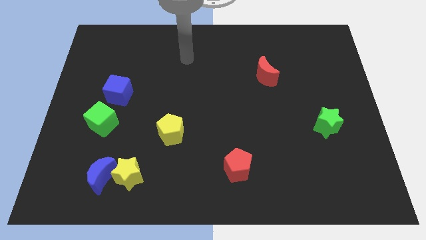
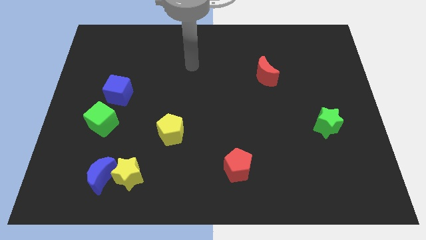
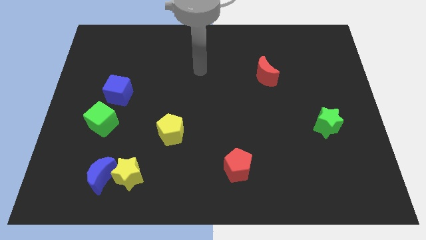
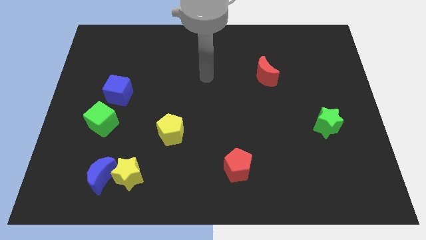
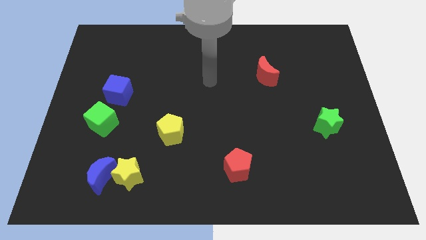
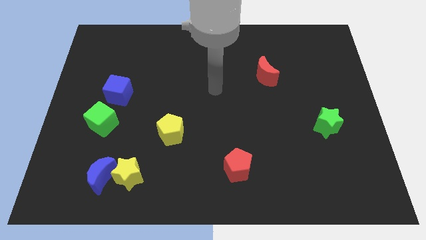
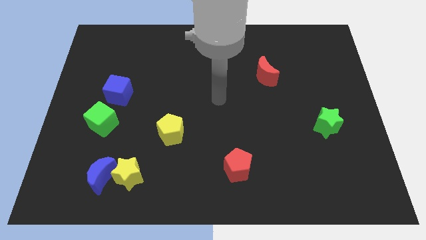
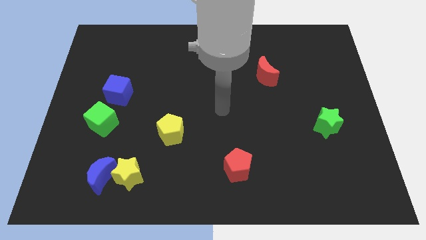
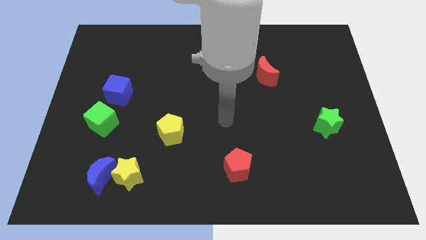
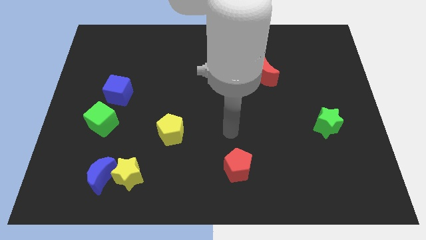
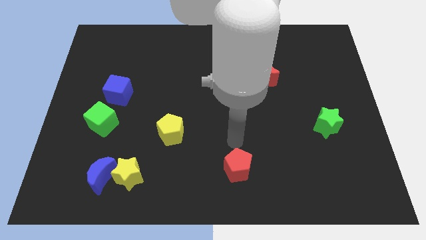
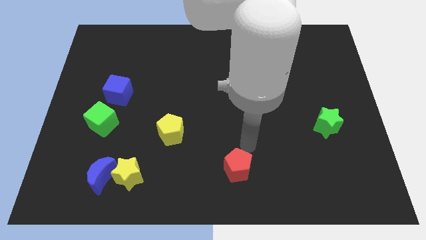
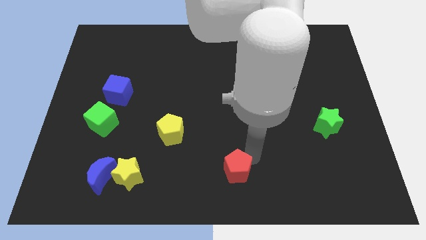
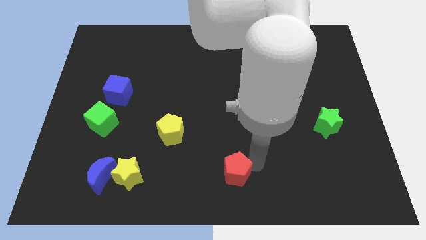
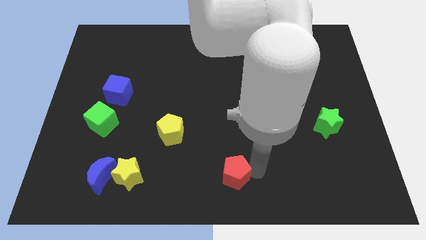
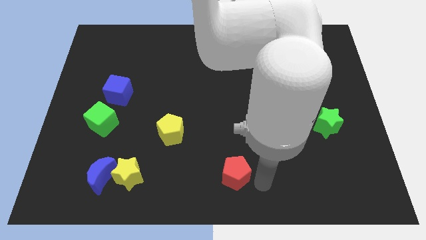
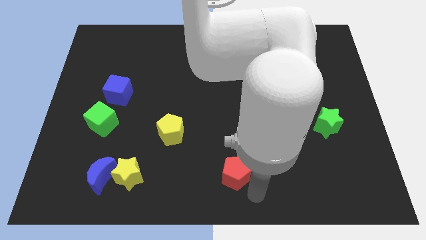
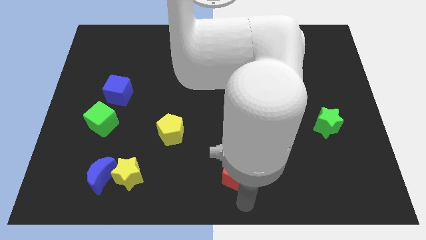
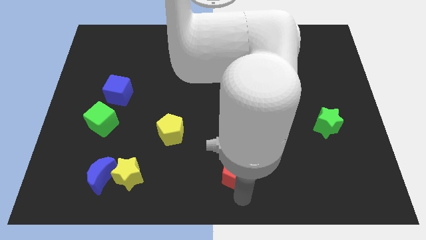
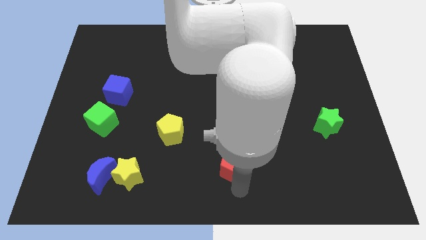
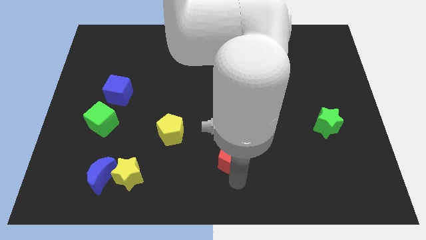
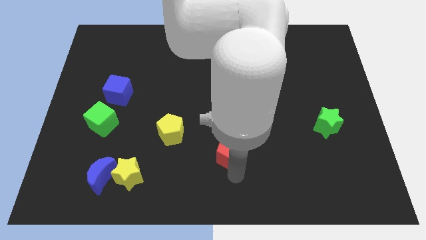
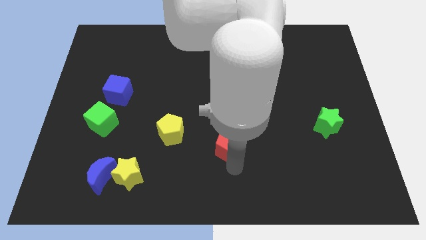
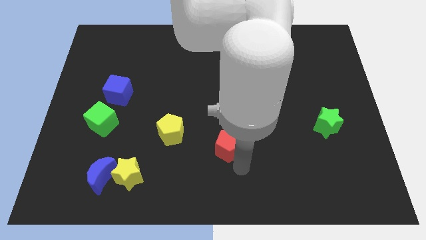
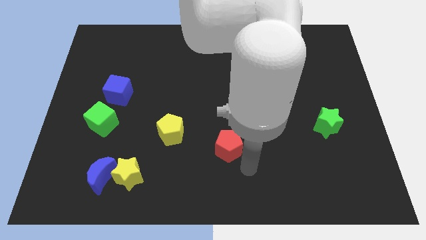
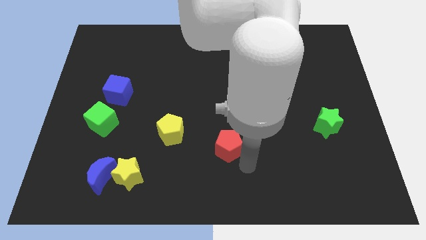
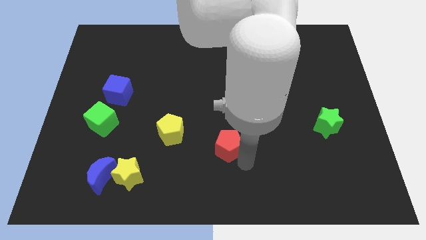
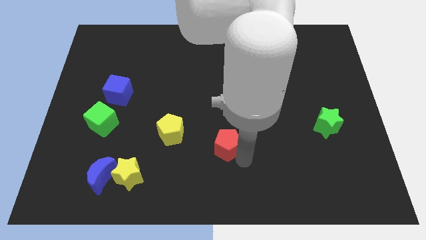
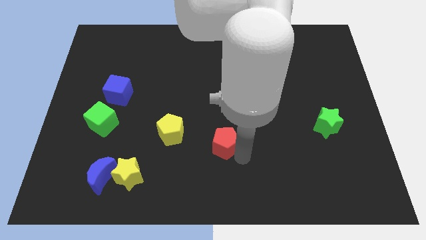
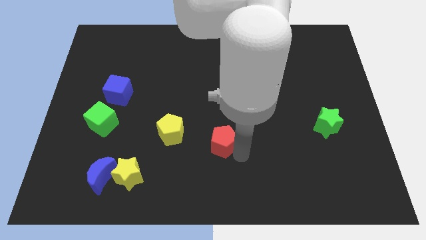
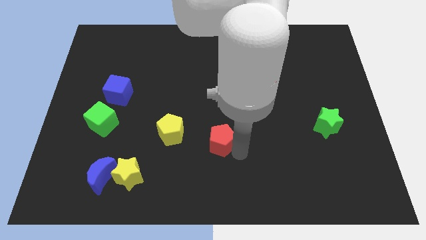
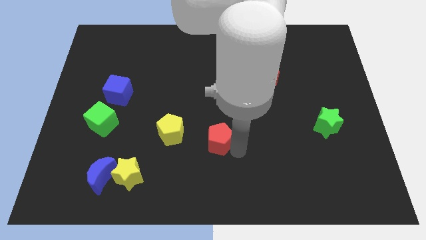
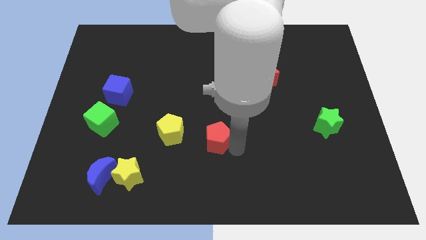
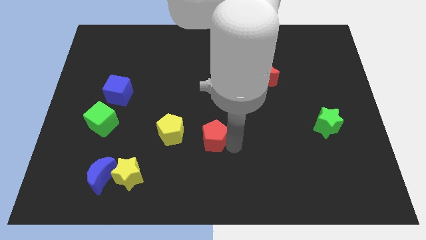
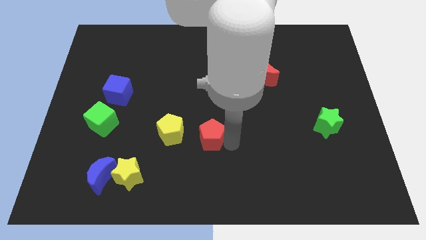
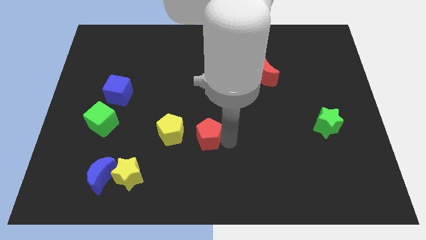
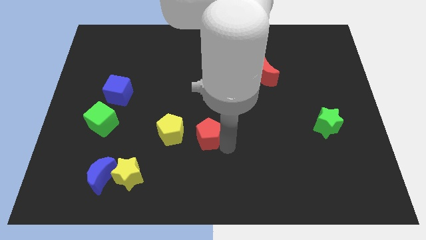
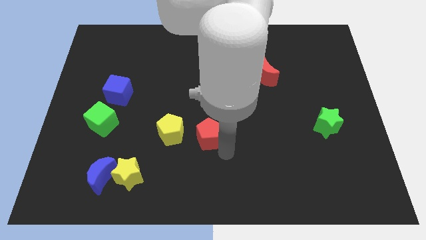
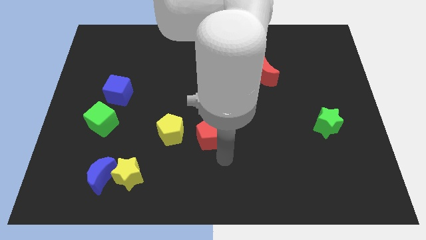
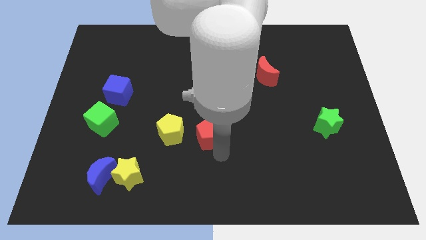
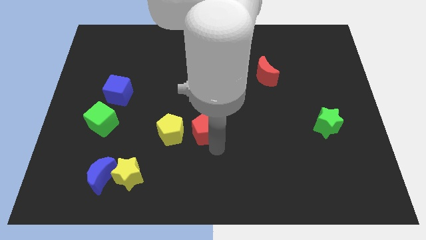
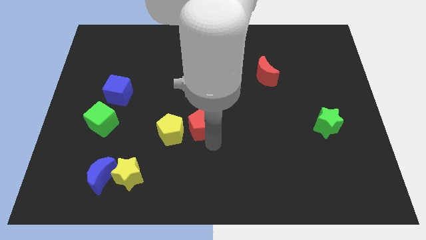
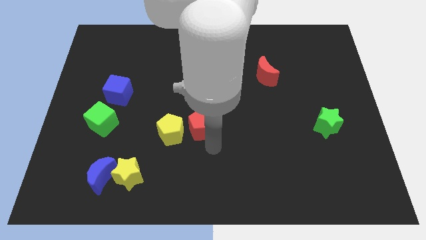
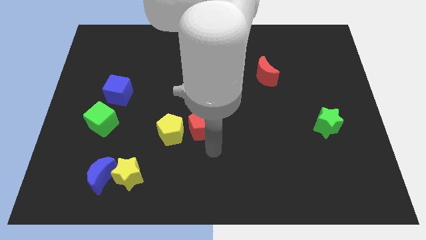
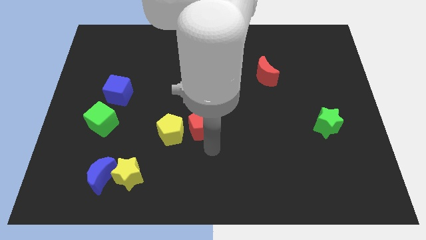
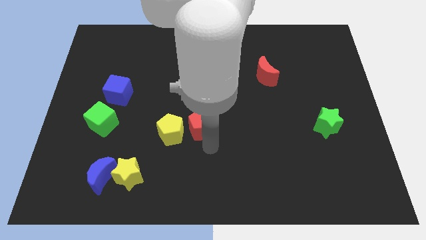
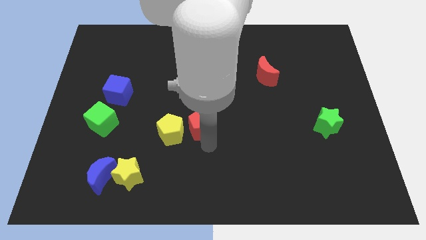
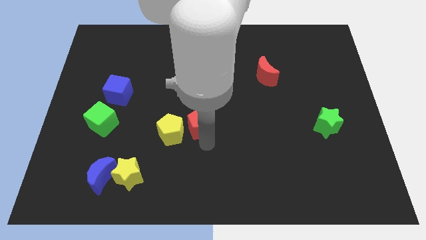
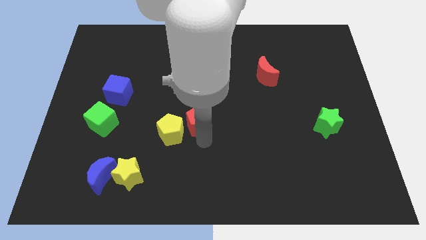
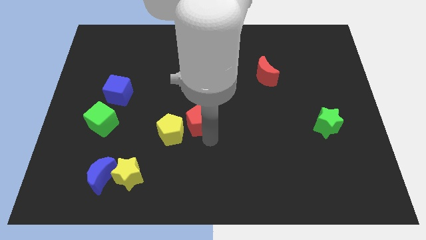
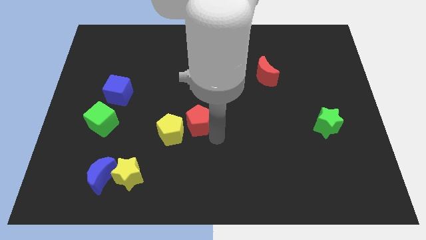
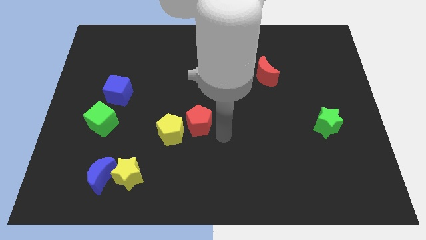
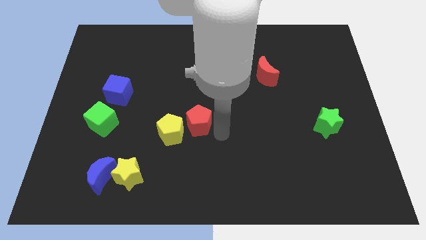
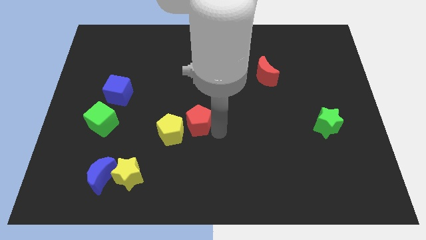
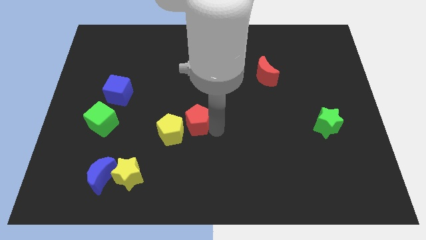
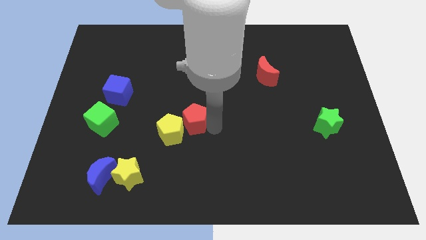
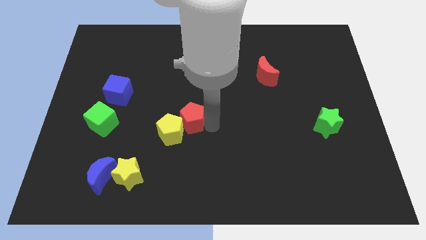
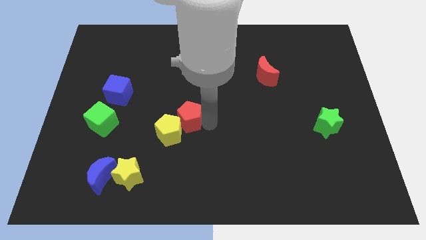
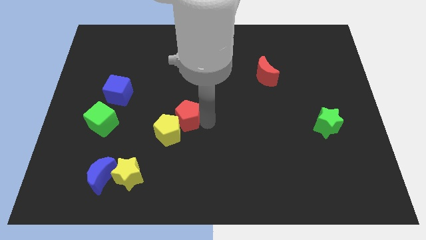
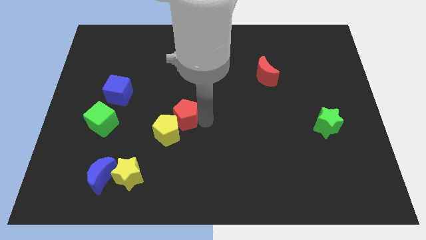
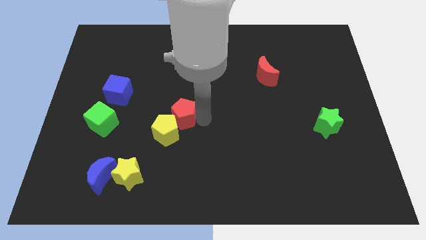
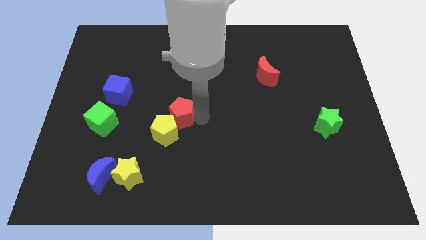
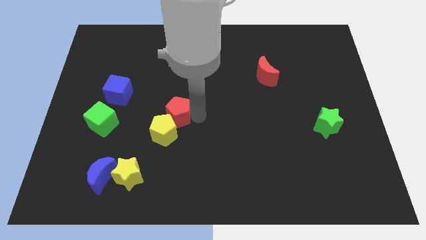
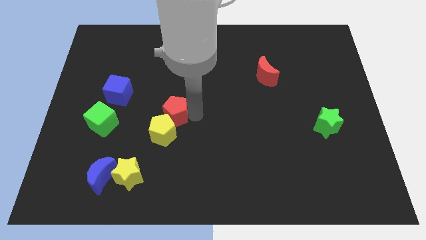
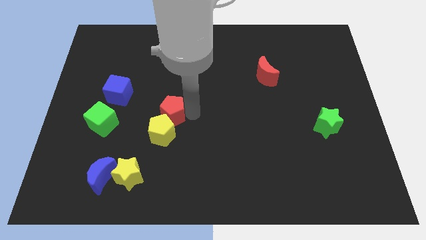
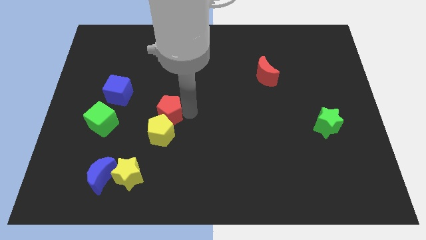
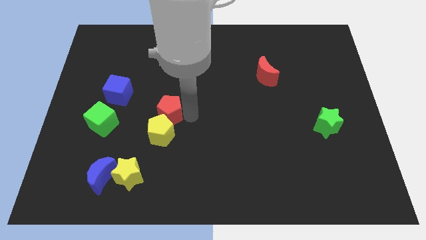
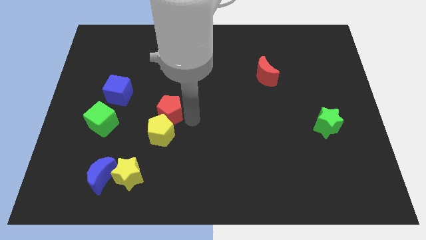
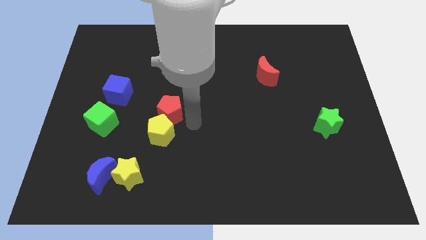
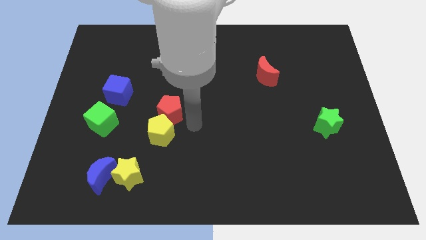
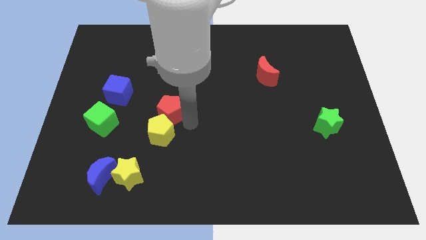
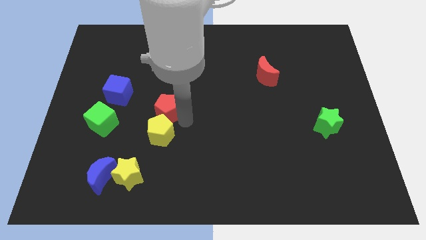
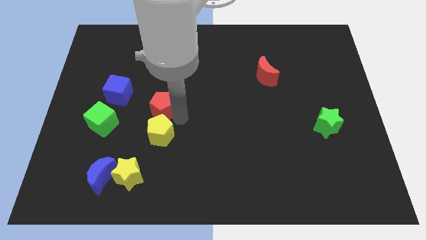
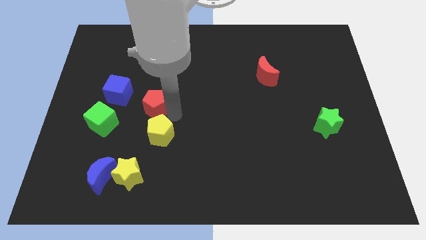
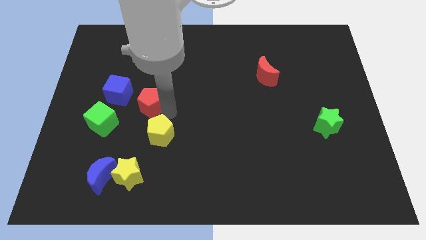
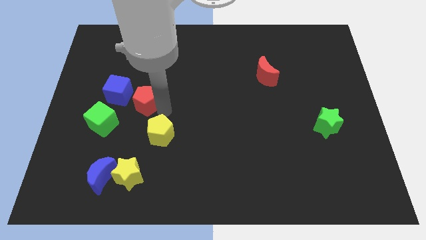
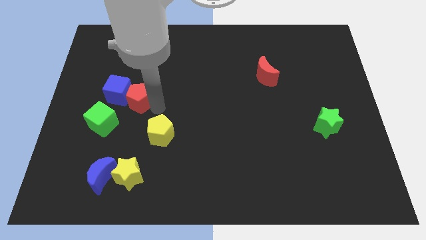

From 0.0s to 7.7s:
move the red pentagon to the blue cube
